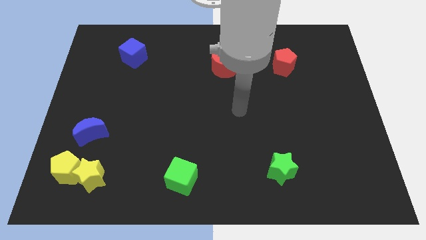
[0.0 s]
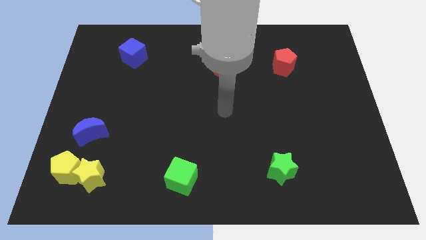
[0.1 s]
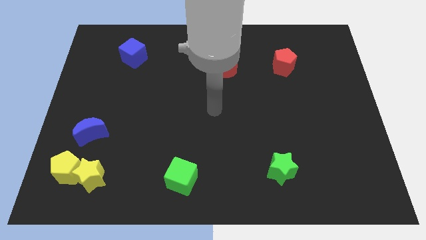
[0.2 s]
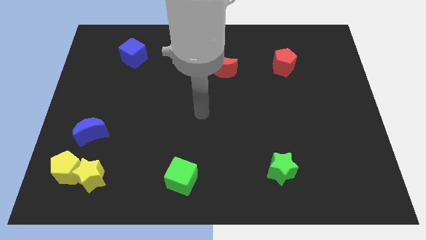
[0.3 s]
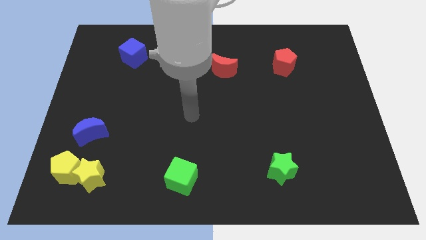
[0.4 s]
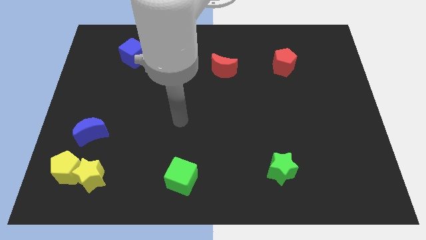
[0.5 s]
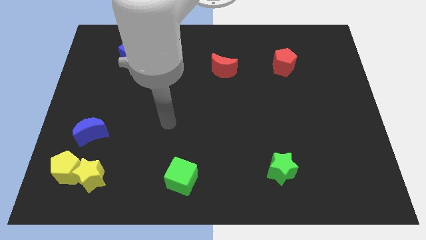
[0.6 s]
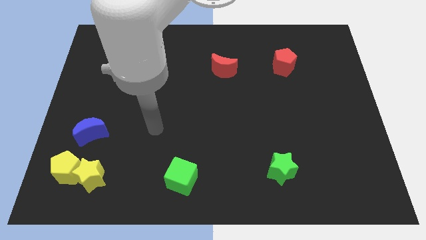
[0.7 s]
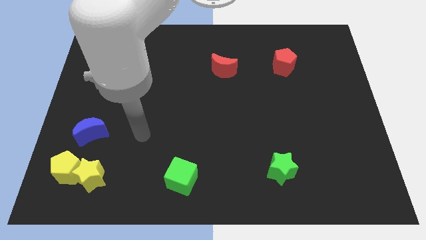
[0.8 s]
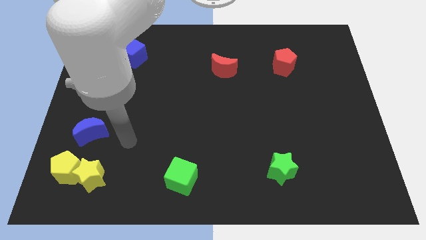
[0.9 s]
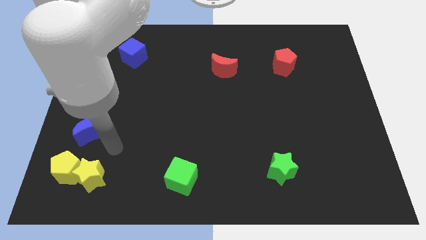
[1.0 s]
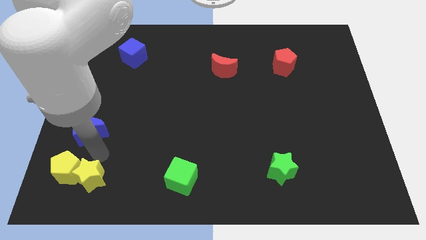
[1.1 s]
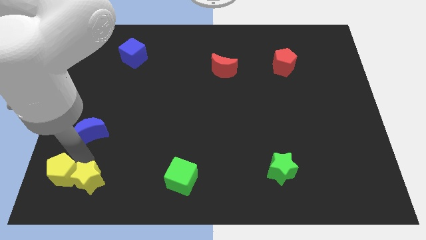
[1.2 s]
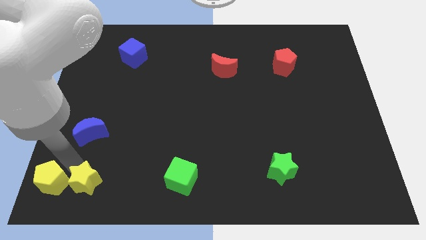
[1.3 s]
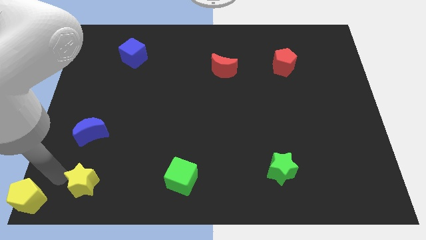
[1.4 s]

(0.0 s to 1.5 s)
move the yellow star away from the yellow pentagon

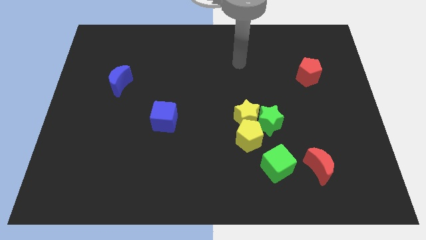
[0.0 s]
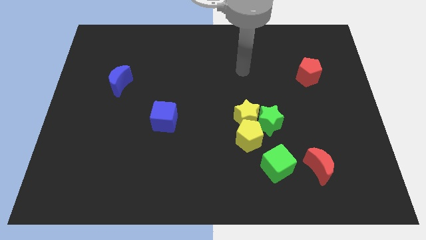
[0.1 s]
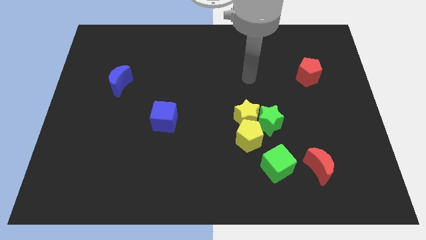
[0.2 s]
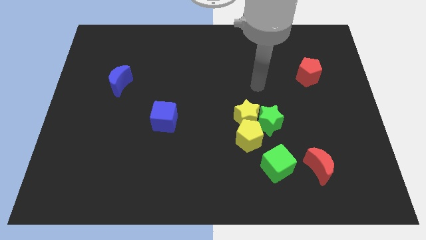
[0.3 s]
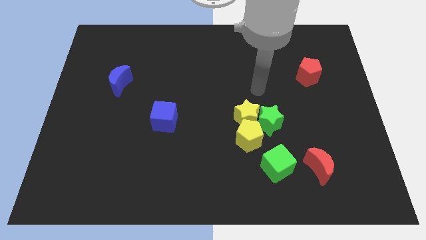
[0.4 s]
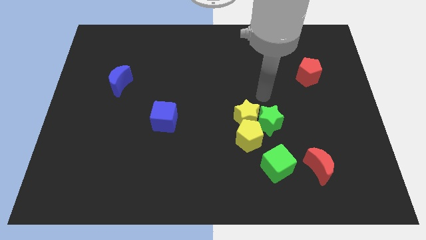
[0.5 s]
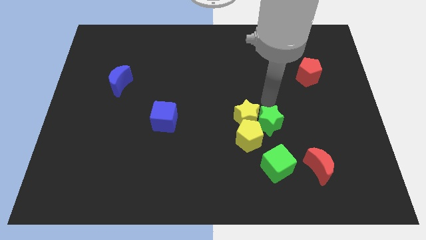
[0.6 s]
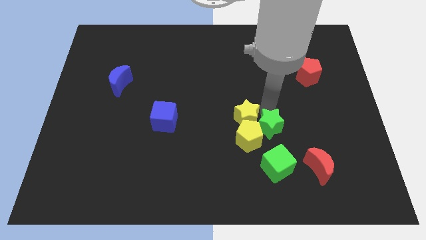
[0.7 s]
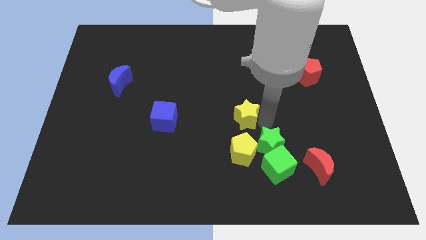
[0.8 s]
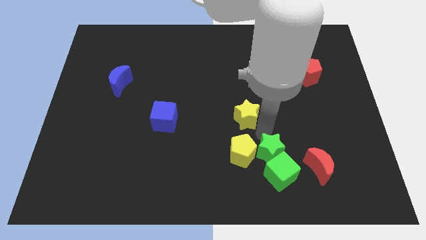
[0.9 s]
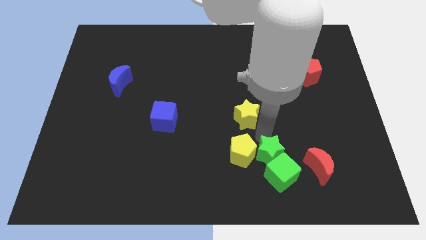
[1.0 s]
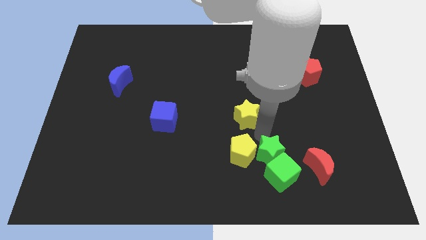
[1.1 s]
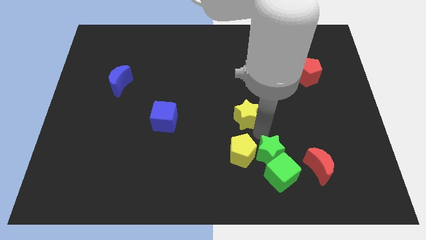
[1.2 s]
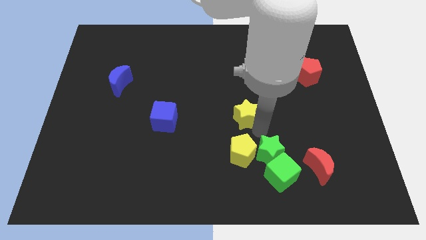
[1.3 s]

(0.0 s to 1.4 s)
pull the yellow star apart from the green star and yellow pentagon

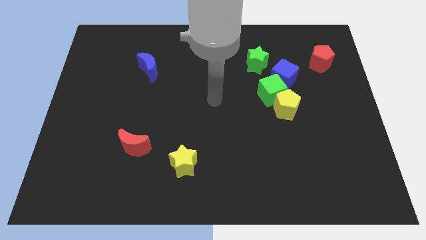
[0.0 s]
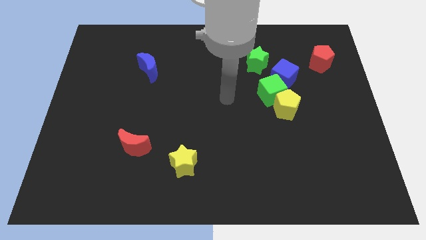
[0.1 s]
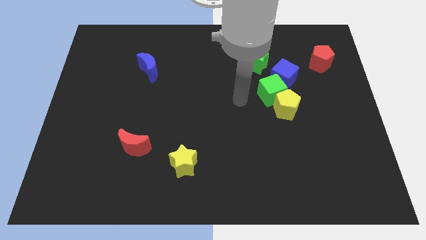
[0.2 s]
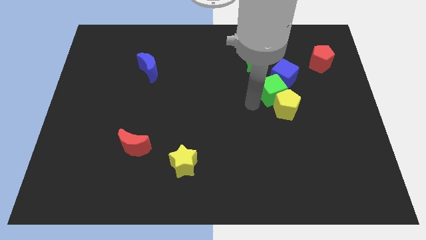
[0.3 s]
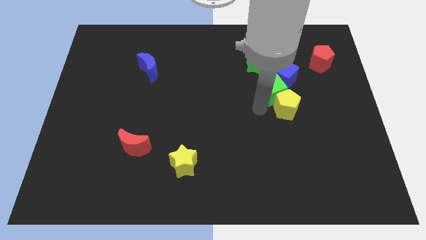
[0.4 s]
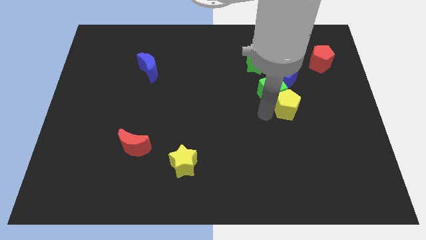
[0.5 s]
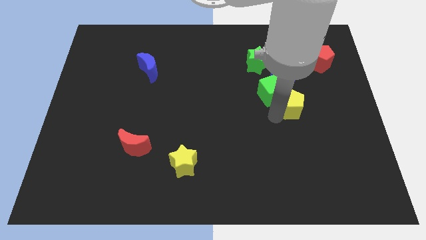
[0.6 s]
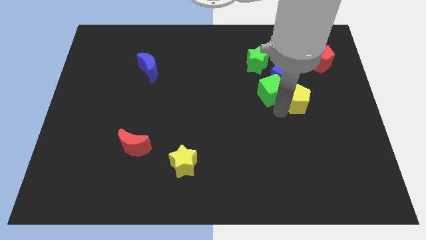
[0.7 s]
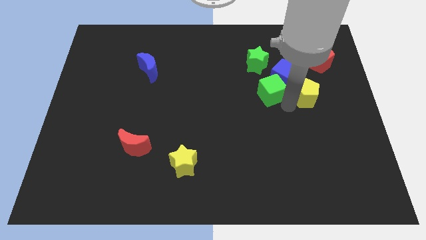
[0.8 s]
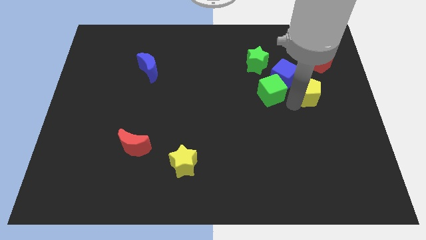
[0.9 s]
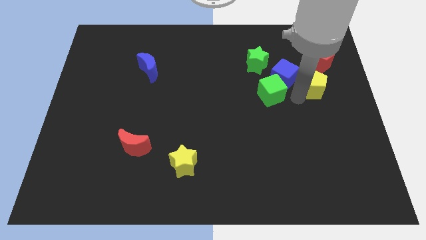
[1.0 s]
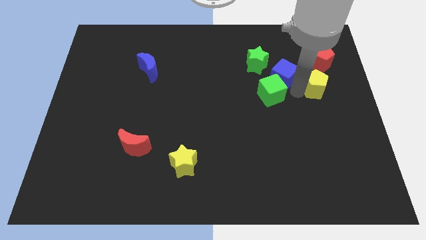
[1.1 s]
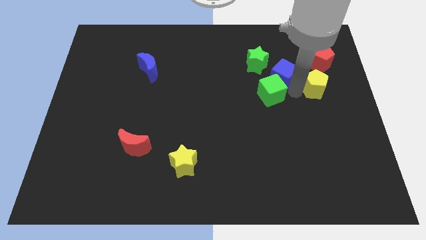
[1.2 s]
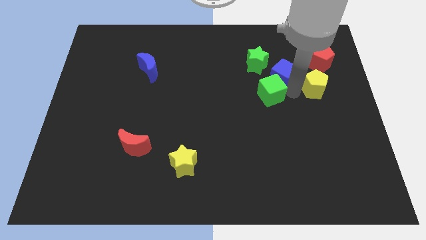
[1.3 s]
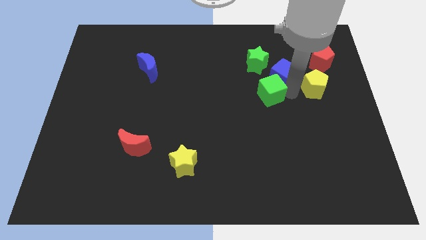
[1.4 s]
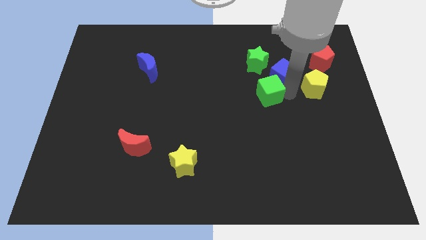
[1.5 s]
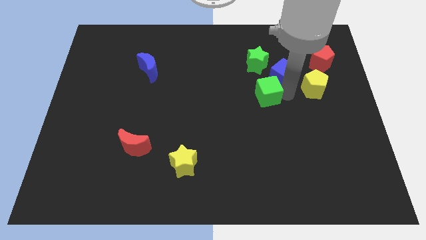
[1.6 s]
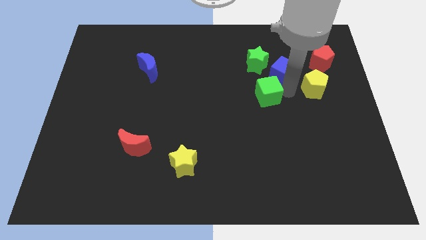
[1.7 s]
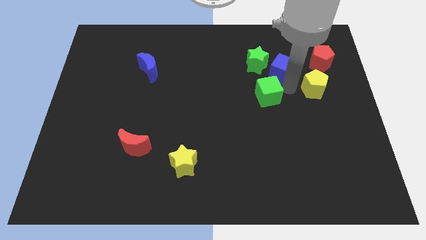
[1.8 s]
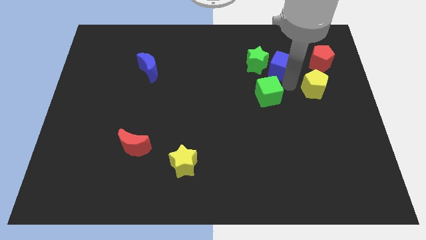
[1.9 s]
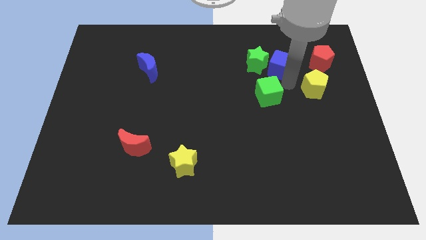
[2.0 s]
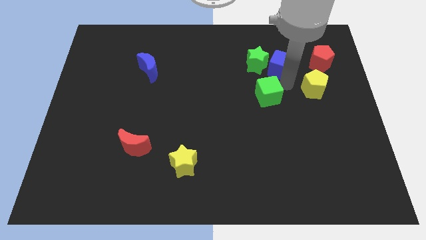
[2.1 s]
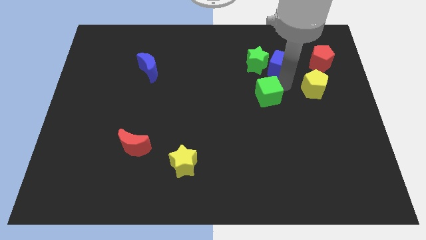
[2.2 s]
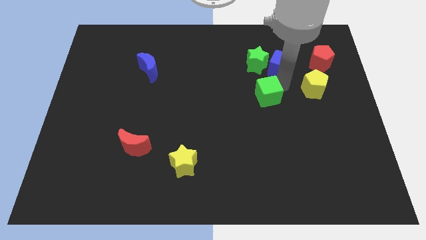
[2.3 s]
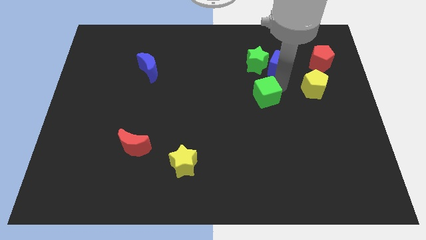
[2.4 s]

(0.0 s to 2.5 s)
pull the green cube apart from the yellow pentagon and blue cube

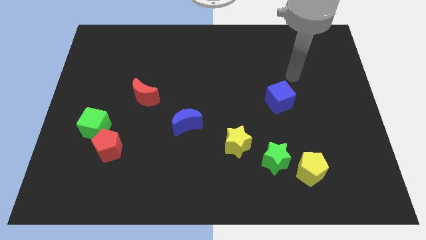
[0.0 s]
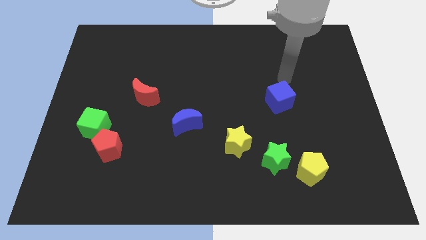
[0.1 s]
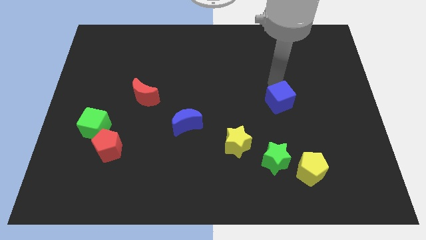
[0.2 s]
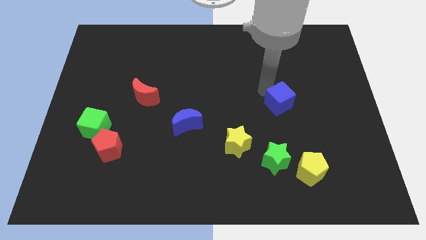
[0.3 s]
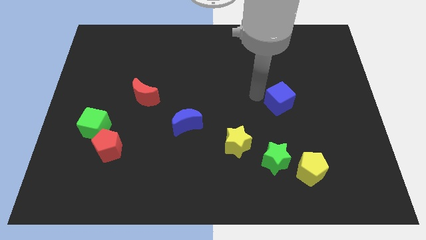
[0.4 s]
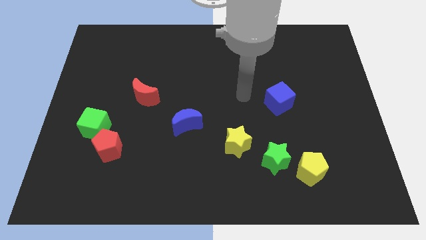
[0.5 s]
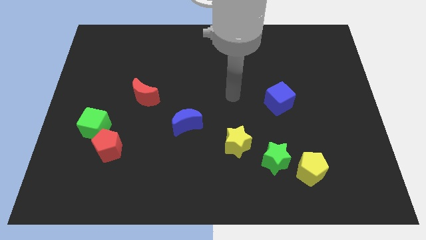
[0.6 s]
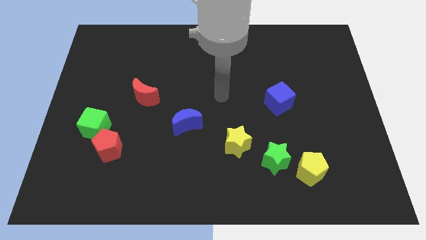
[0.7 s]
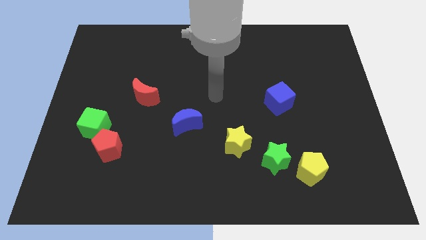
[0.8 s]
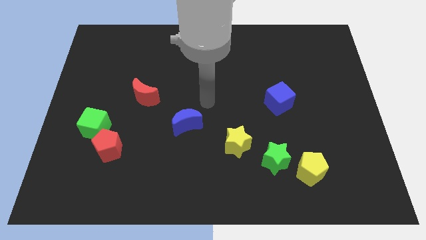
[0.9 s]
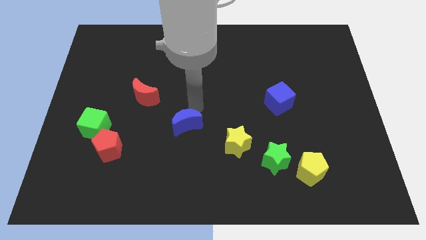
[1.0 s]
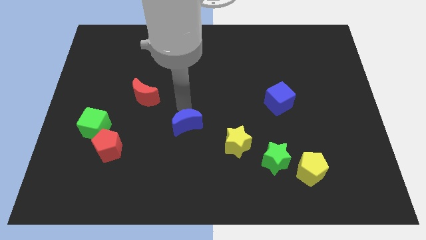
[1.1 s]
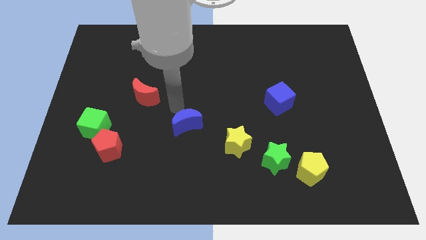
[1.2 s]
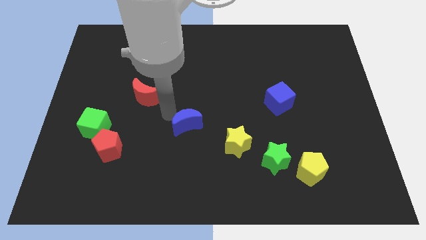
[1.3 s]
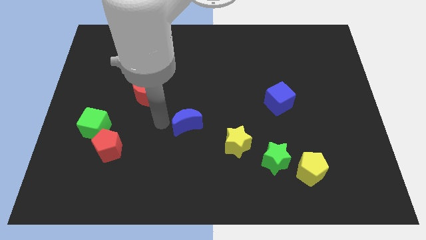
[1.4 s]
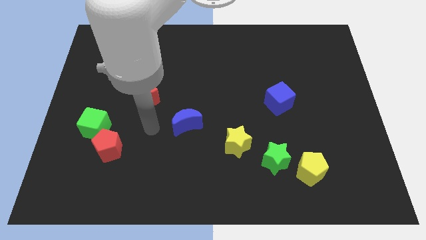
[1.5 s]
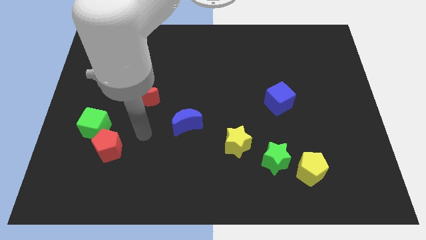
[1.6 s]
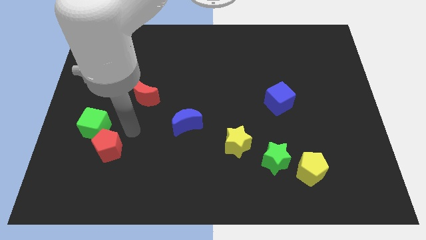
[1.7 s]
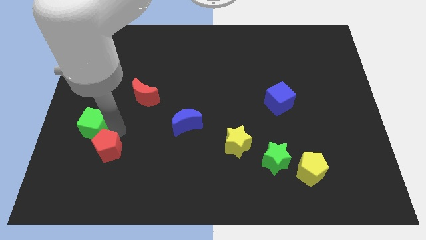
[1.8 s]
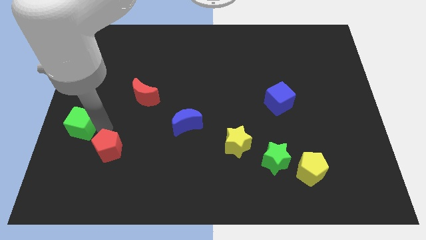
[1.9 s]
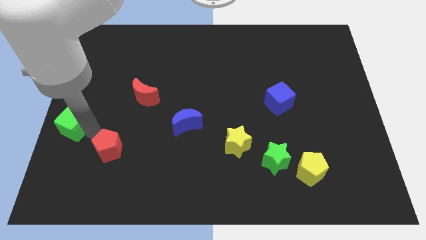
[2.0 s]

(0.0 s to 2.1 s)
move the red pentagon away from the green cube

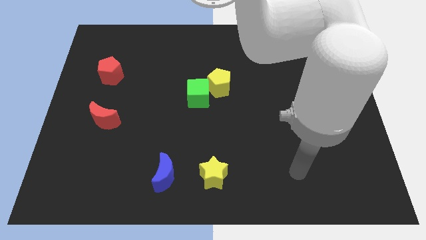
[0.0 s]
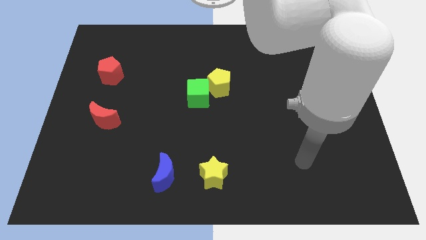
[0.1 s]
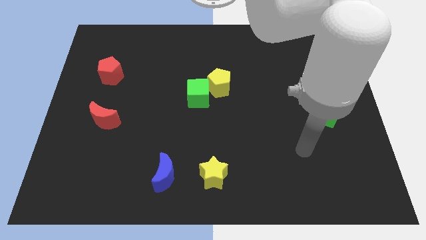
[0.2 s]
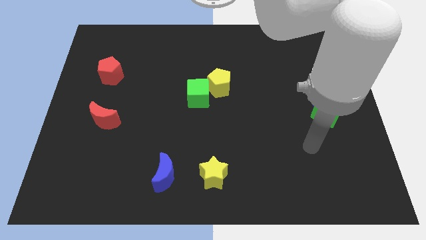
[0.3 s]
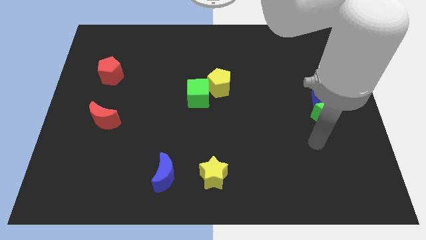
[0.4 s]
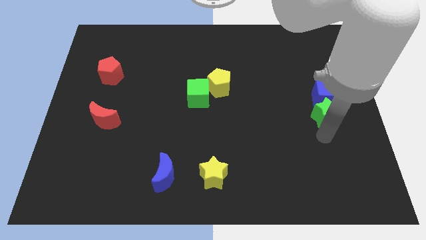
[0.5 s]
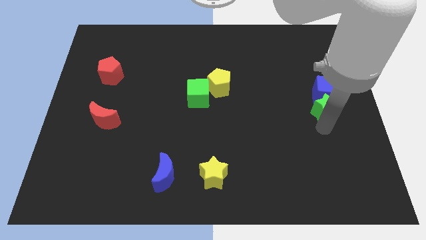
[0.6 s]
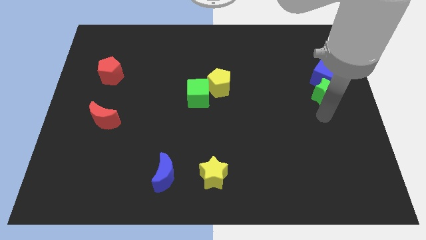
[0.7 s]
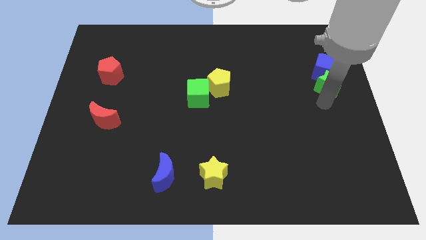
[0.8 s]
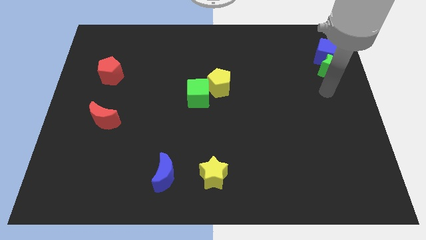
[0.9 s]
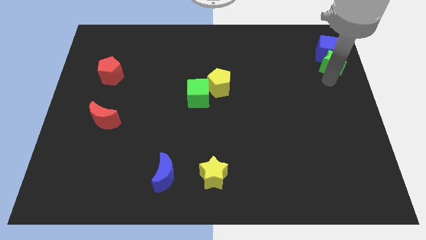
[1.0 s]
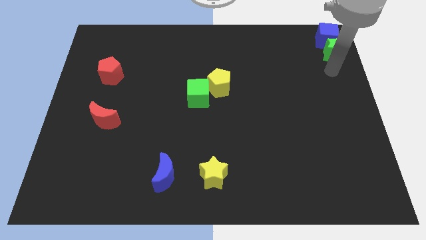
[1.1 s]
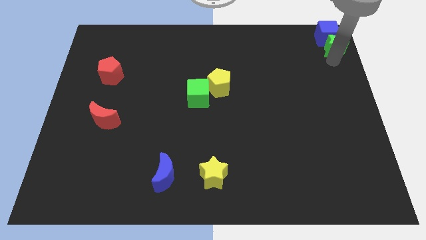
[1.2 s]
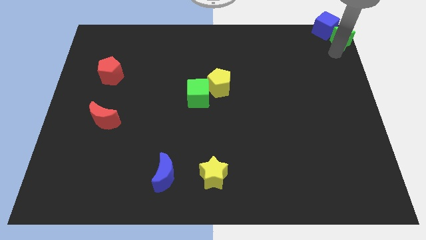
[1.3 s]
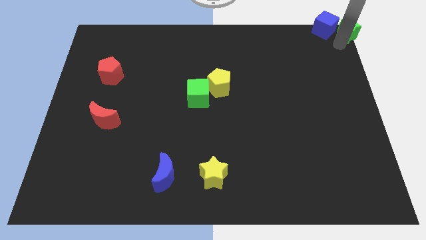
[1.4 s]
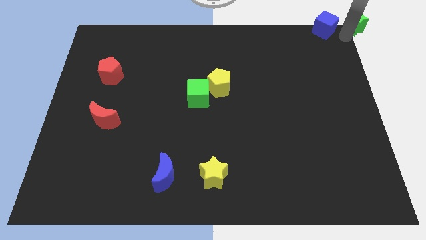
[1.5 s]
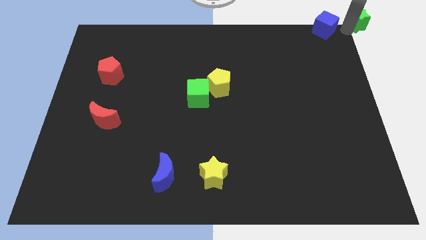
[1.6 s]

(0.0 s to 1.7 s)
separate the blue cube from the green star

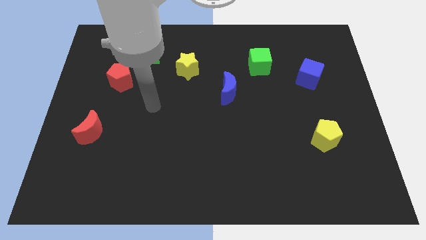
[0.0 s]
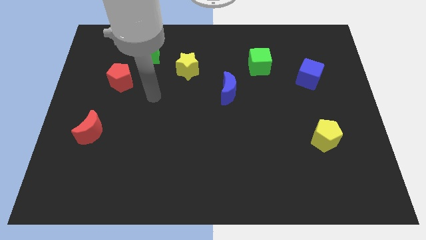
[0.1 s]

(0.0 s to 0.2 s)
move the red pentagon away from the green star
